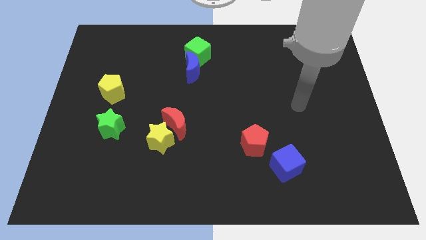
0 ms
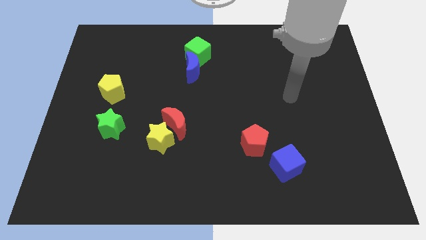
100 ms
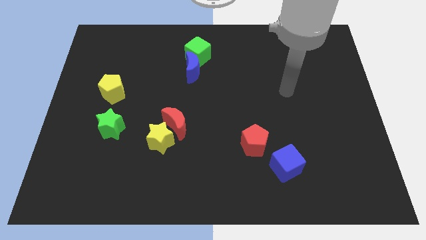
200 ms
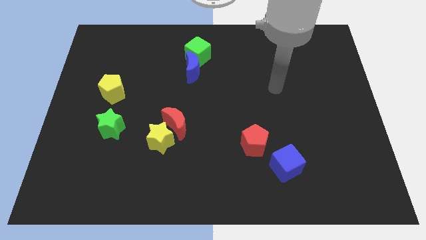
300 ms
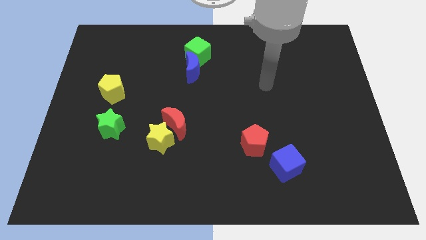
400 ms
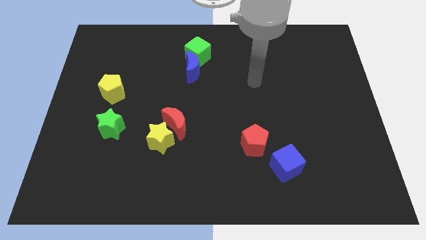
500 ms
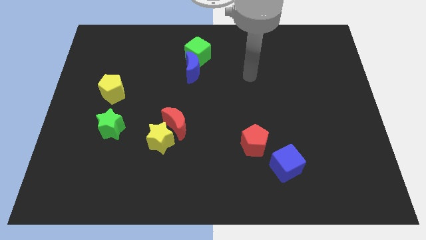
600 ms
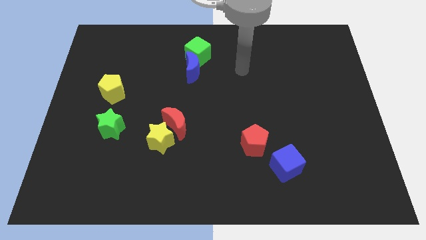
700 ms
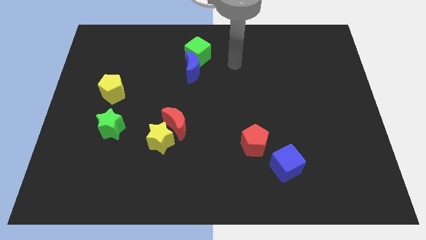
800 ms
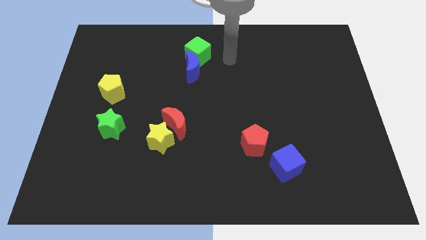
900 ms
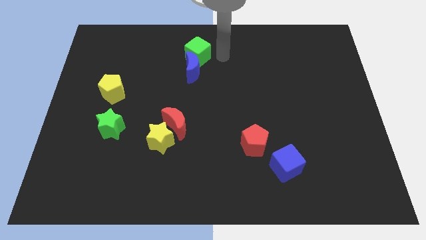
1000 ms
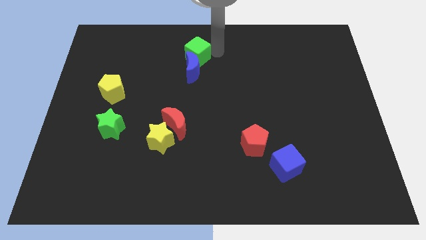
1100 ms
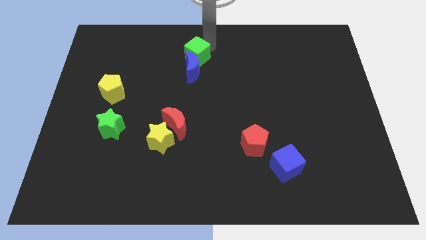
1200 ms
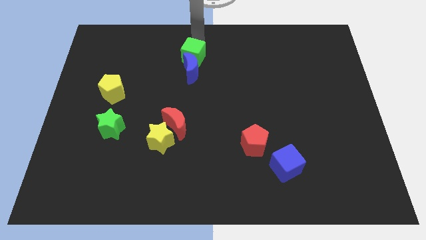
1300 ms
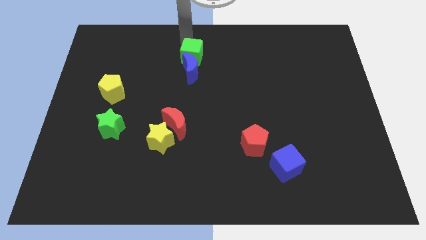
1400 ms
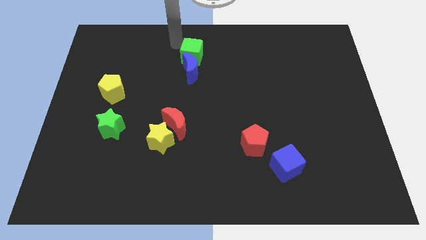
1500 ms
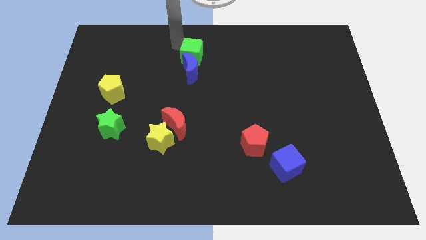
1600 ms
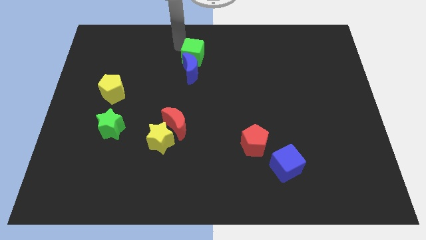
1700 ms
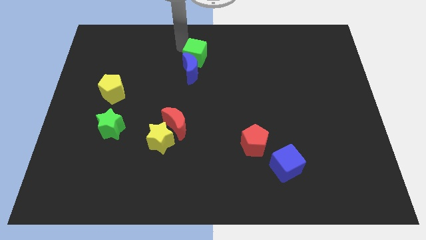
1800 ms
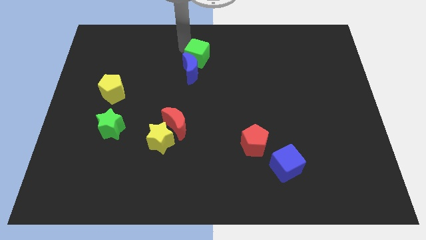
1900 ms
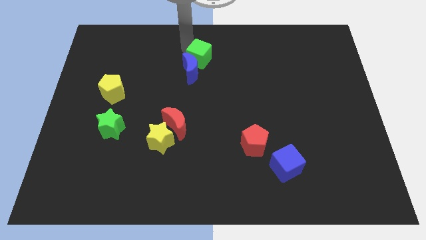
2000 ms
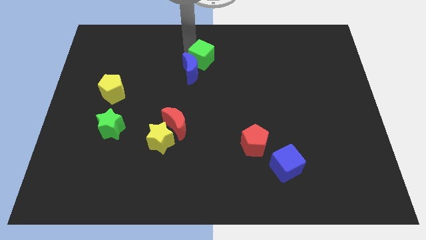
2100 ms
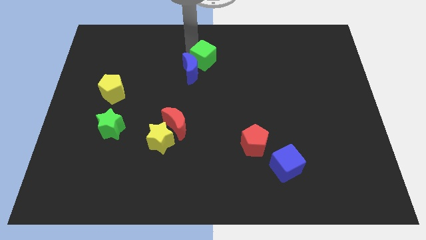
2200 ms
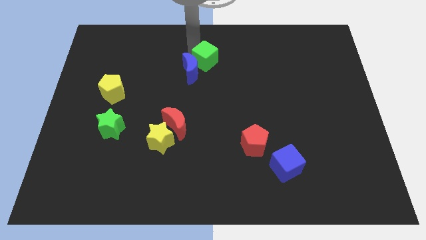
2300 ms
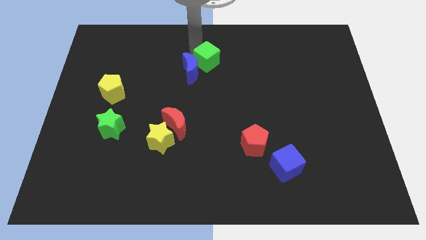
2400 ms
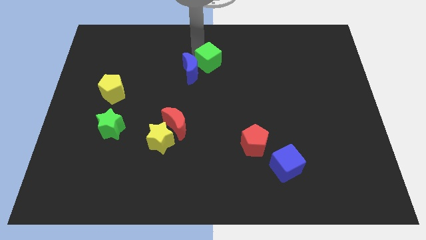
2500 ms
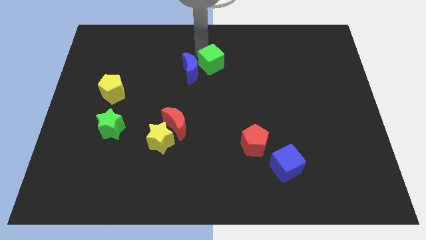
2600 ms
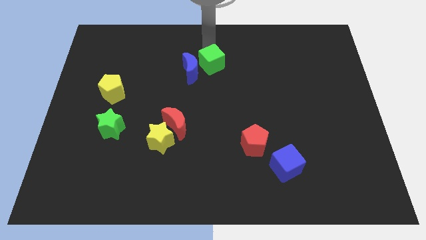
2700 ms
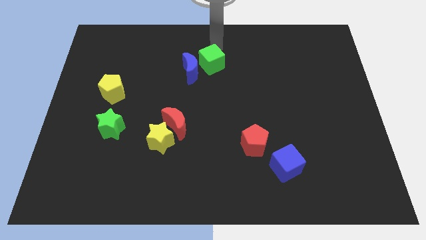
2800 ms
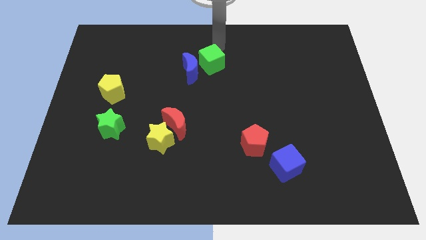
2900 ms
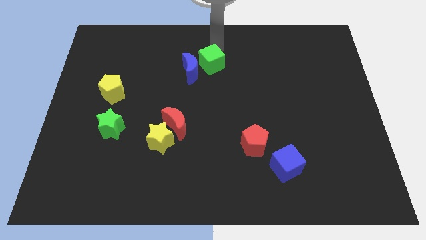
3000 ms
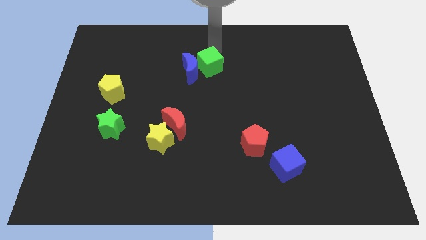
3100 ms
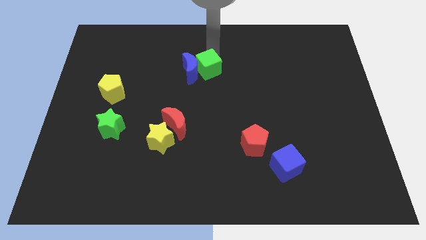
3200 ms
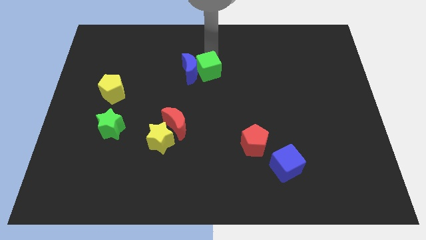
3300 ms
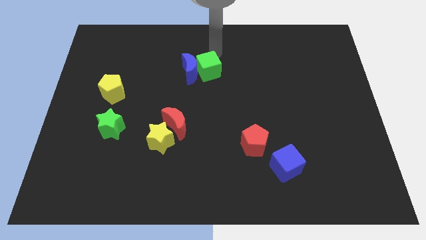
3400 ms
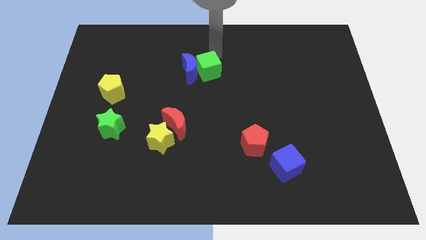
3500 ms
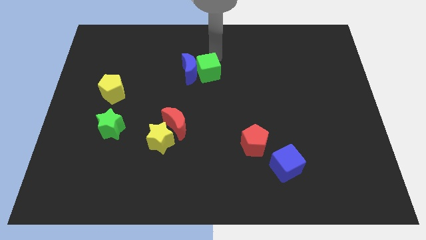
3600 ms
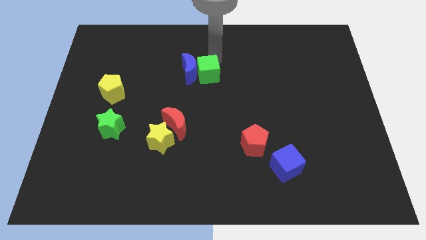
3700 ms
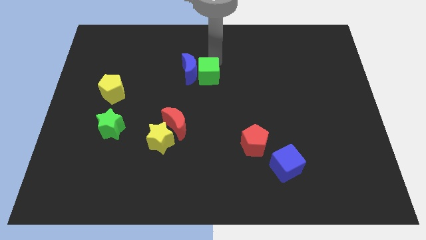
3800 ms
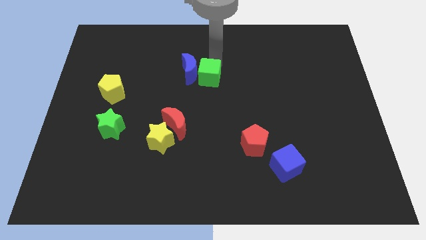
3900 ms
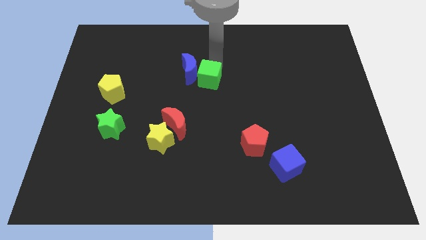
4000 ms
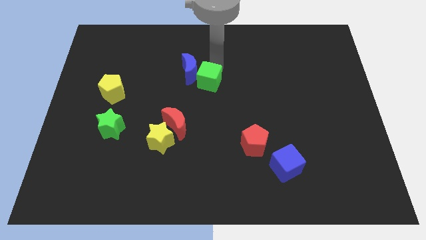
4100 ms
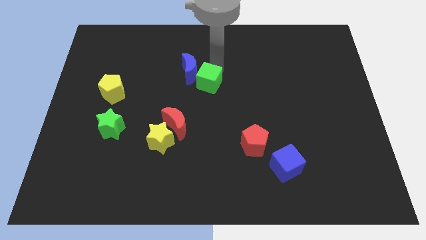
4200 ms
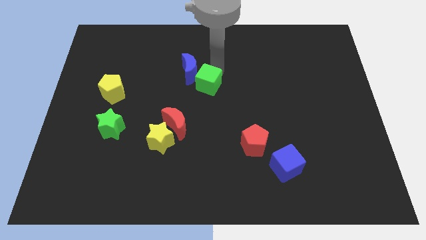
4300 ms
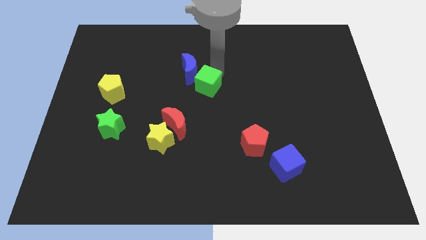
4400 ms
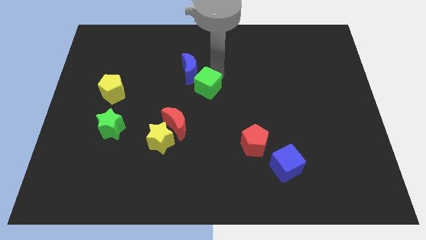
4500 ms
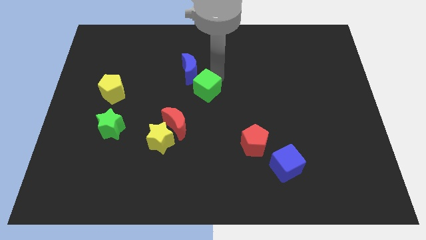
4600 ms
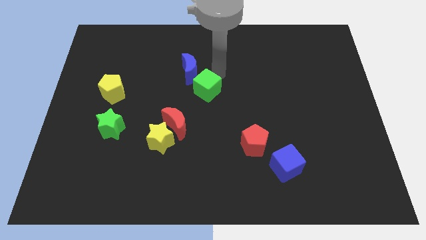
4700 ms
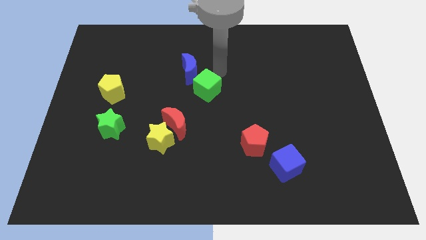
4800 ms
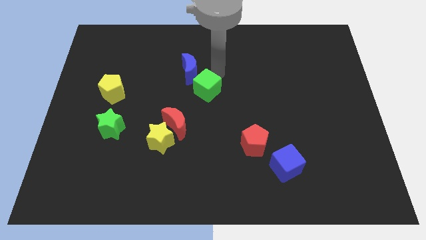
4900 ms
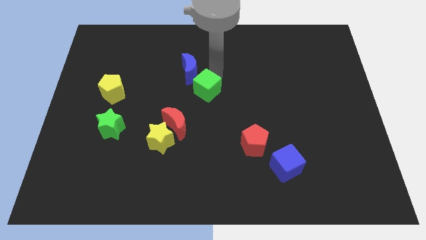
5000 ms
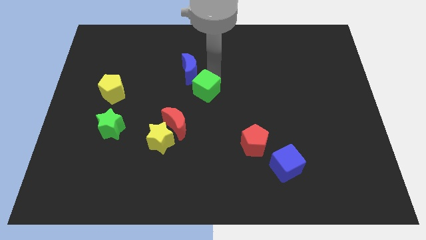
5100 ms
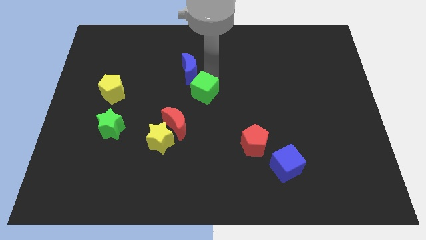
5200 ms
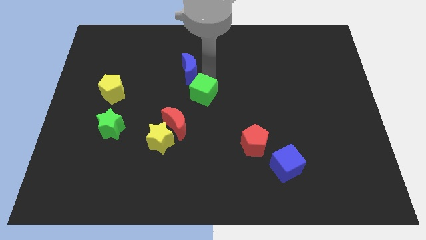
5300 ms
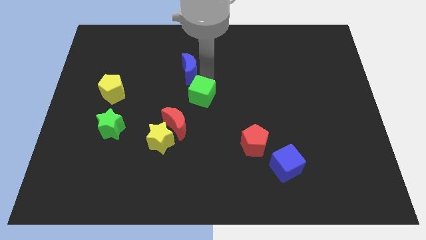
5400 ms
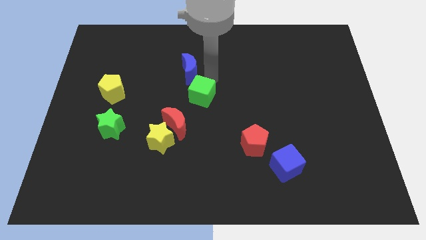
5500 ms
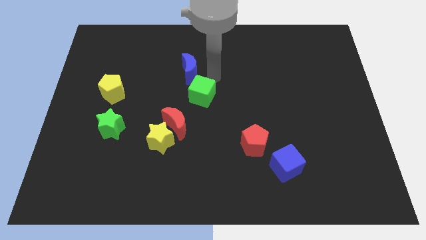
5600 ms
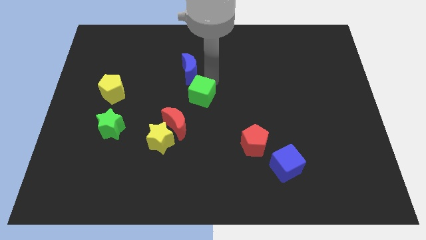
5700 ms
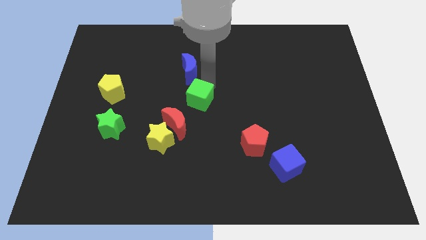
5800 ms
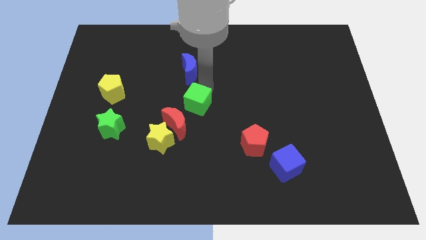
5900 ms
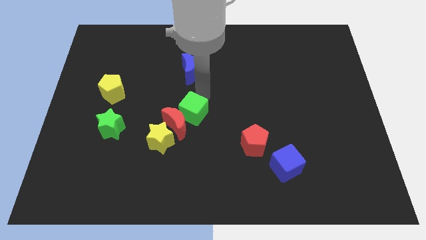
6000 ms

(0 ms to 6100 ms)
put the green cube towards the red moon

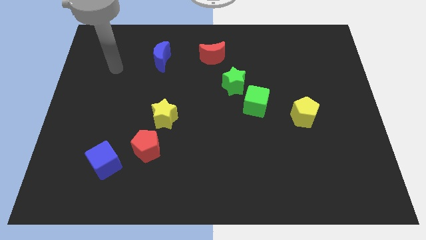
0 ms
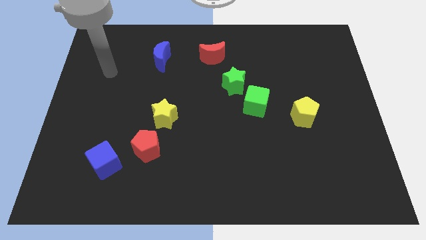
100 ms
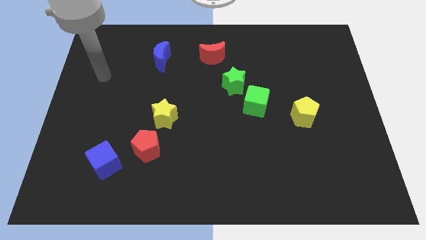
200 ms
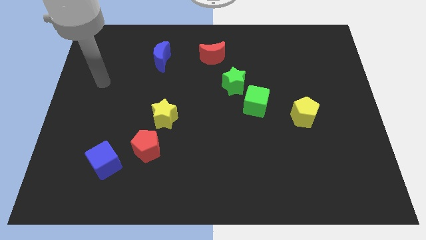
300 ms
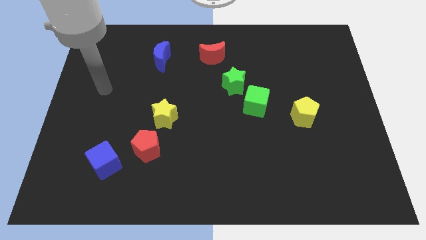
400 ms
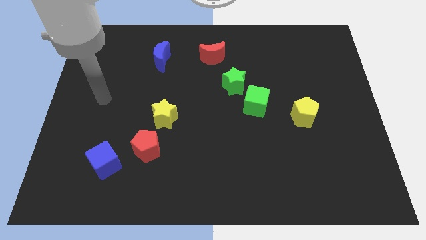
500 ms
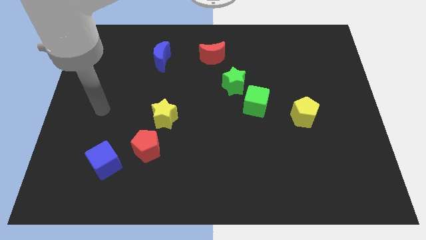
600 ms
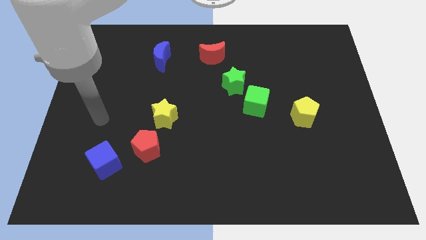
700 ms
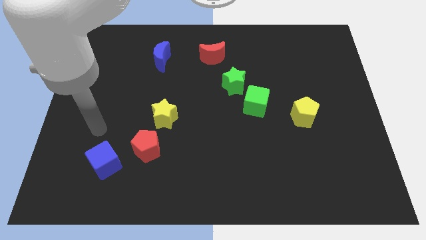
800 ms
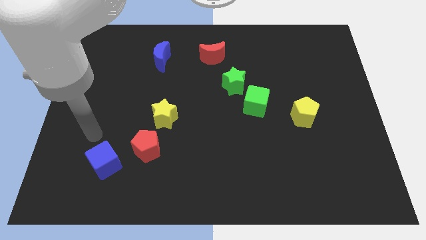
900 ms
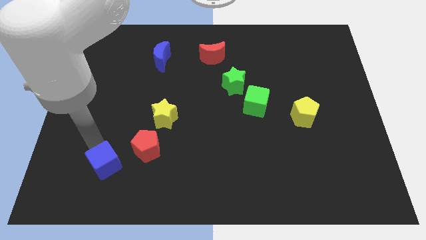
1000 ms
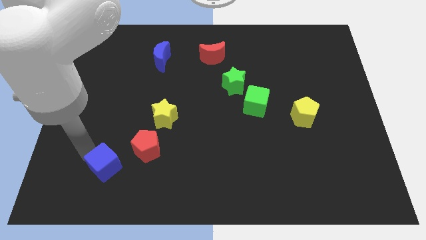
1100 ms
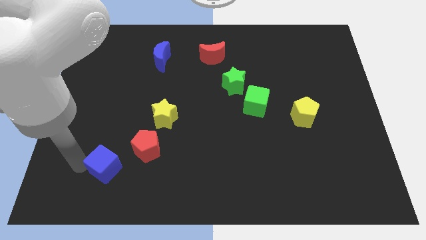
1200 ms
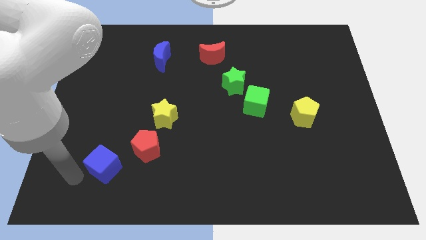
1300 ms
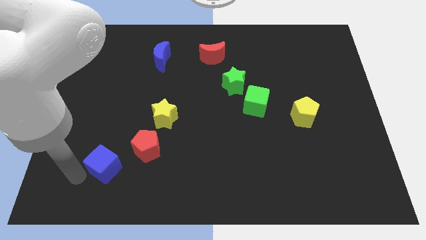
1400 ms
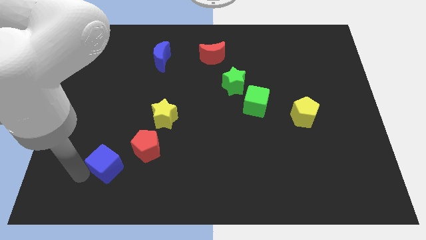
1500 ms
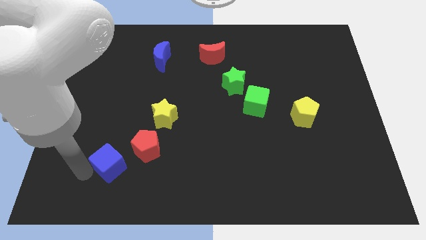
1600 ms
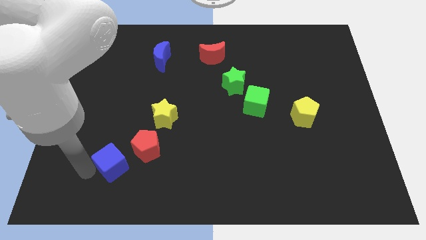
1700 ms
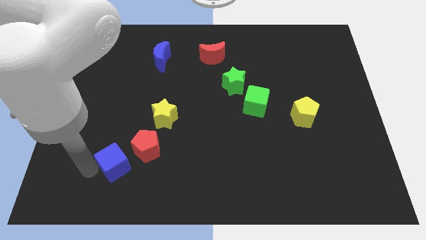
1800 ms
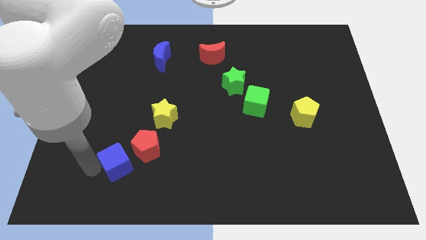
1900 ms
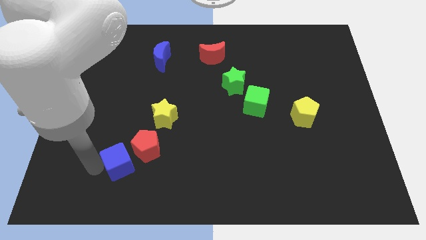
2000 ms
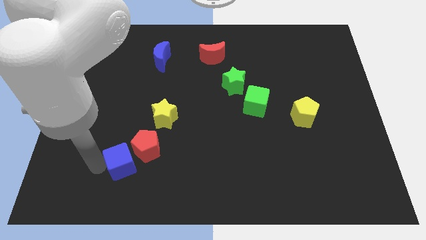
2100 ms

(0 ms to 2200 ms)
push the blue cube to the red pentagon
